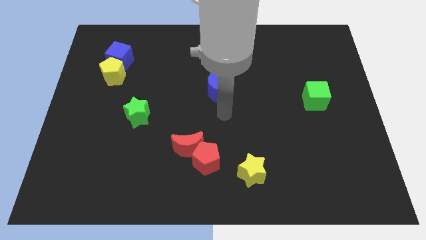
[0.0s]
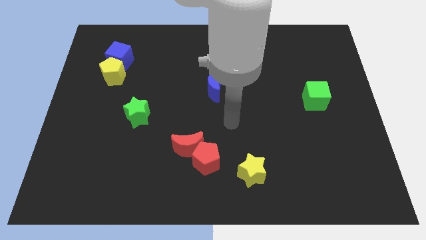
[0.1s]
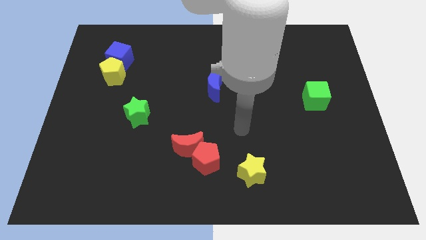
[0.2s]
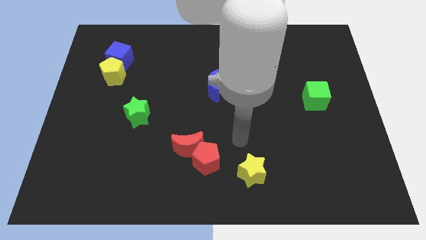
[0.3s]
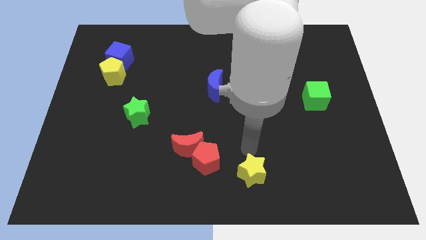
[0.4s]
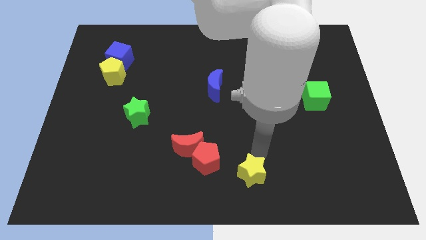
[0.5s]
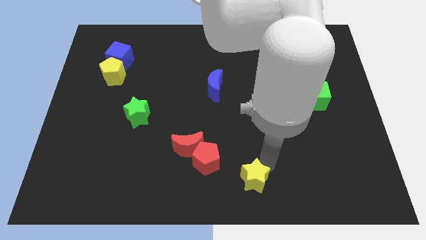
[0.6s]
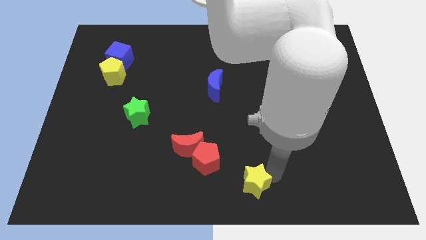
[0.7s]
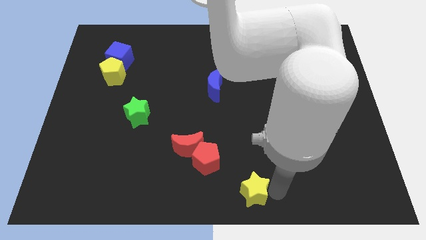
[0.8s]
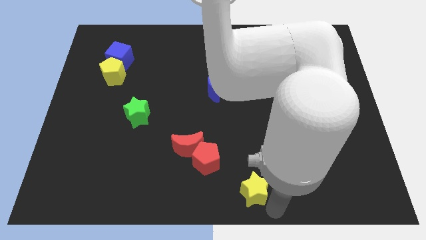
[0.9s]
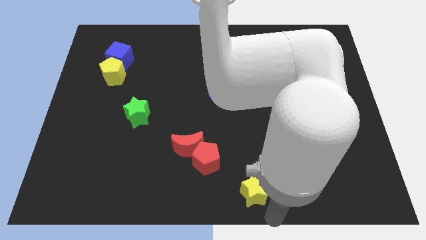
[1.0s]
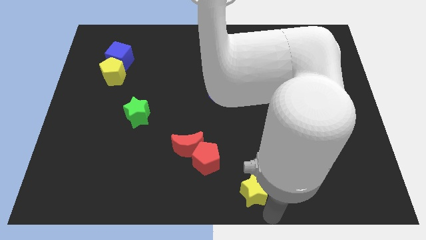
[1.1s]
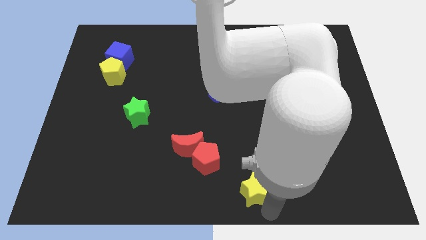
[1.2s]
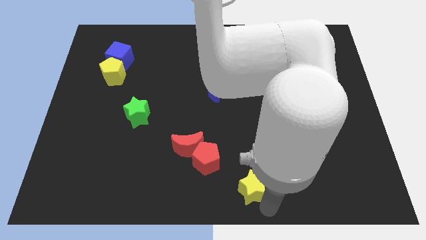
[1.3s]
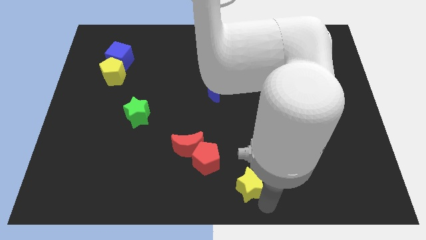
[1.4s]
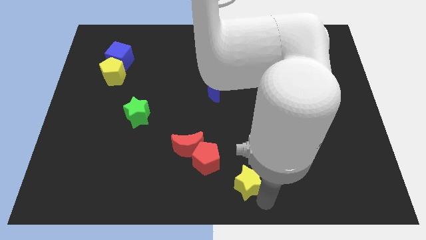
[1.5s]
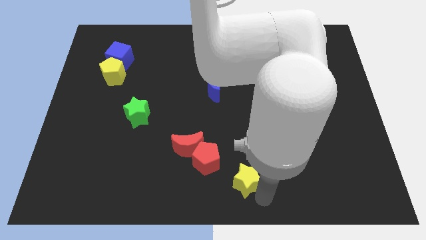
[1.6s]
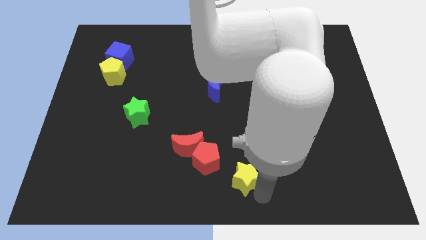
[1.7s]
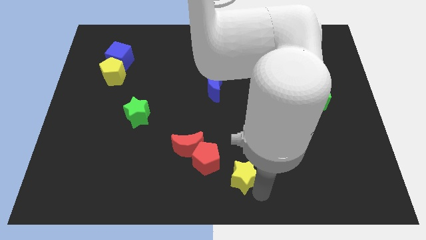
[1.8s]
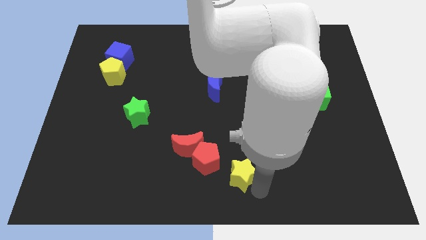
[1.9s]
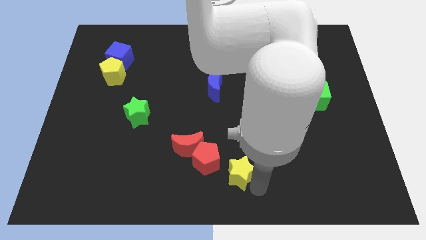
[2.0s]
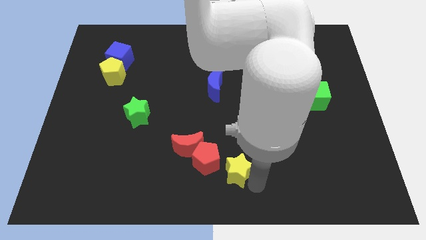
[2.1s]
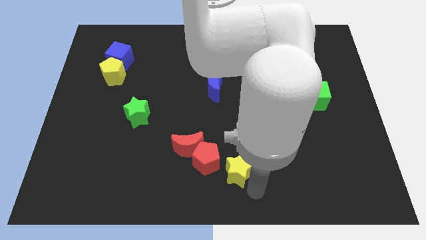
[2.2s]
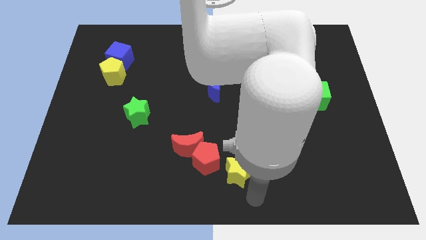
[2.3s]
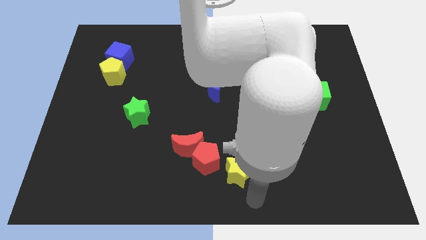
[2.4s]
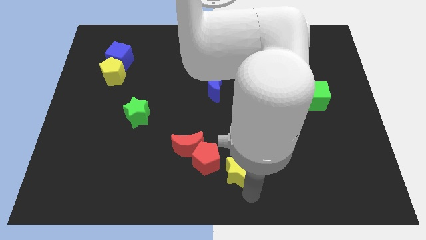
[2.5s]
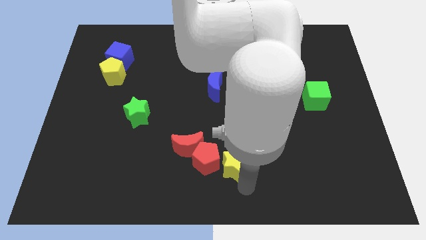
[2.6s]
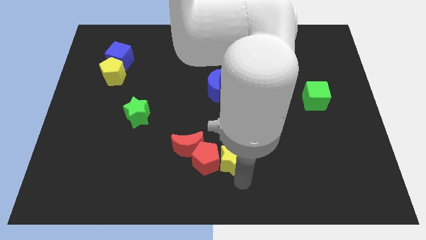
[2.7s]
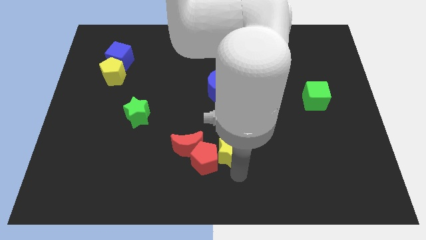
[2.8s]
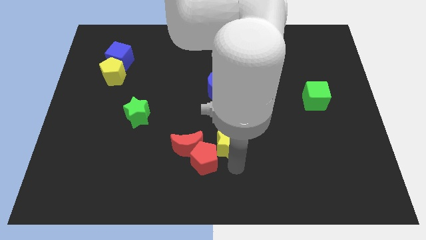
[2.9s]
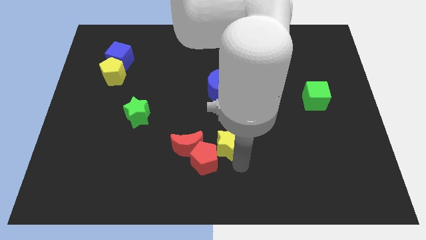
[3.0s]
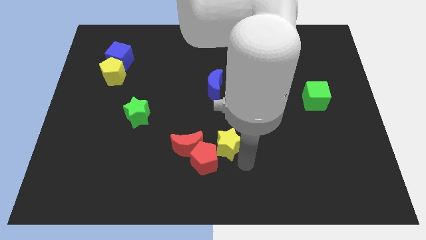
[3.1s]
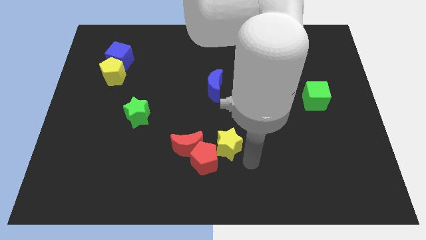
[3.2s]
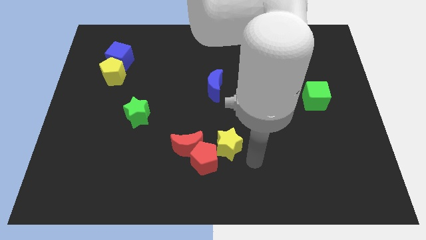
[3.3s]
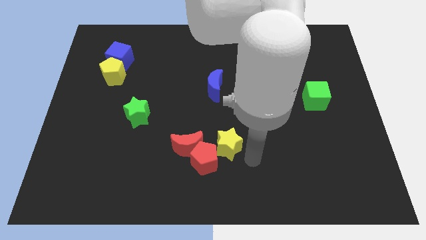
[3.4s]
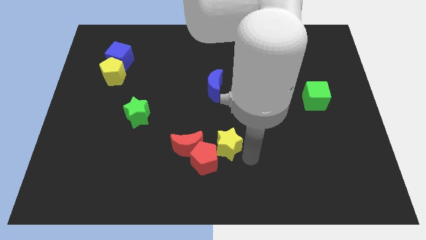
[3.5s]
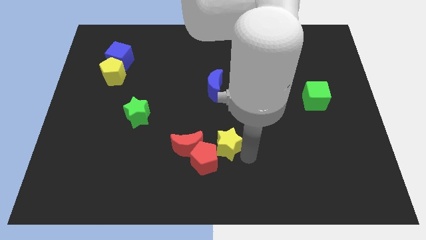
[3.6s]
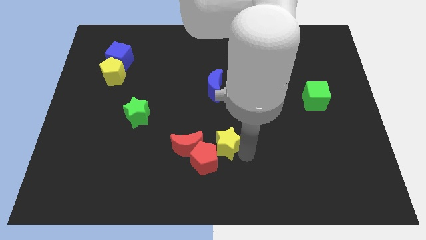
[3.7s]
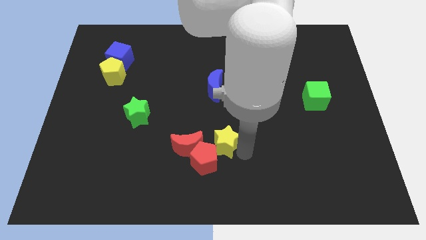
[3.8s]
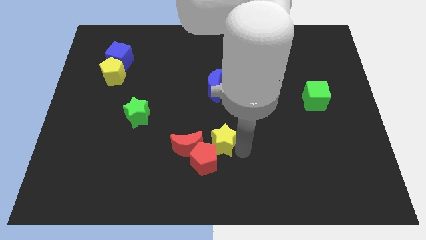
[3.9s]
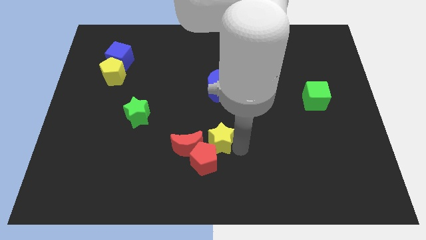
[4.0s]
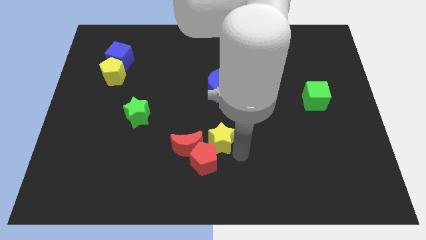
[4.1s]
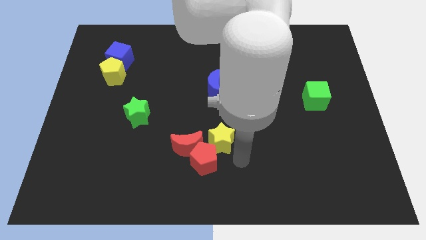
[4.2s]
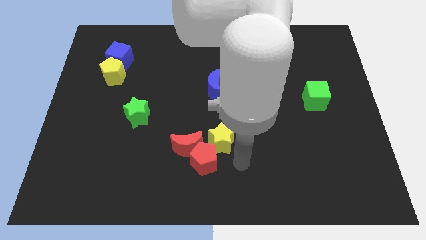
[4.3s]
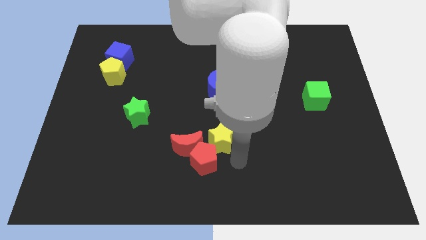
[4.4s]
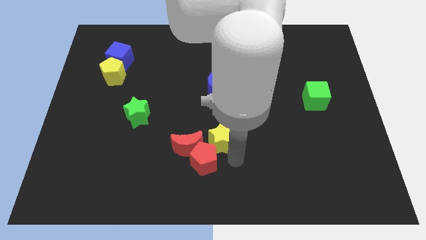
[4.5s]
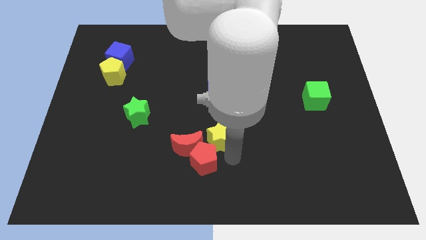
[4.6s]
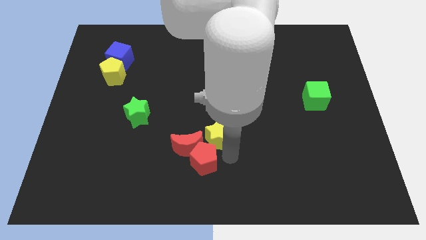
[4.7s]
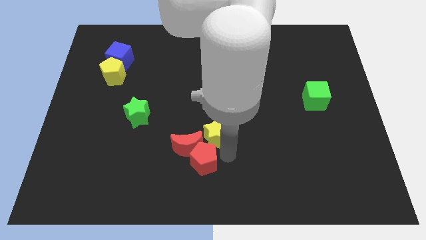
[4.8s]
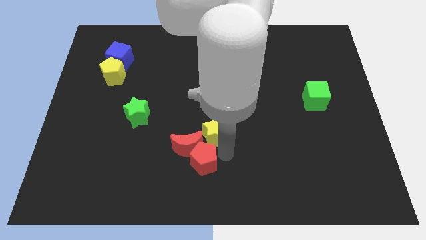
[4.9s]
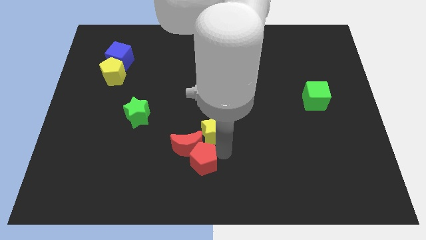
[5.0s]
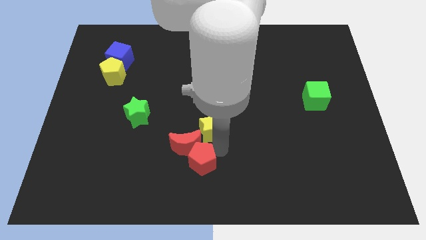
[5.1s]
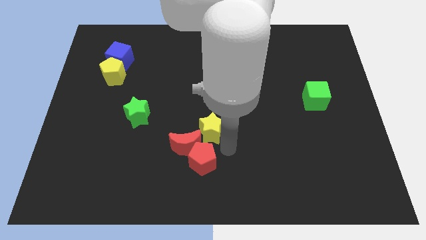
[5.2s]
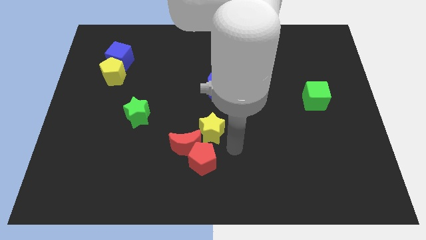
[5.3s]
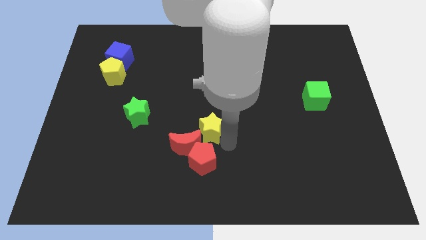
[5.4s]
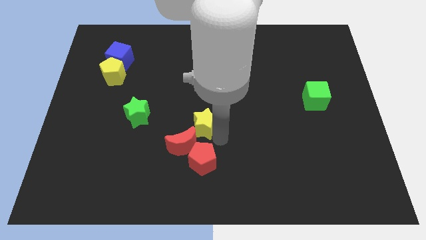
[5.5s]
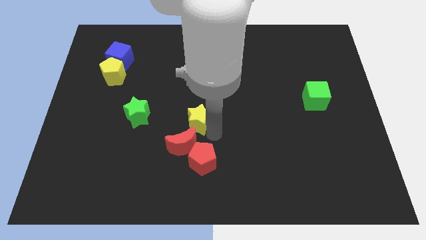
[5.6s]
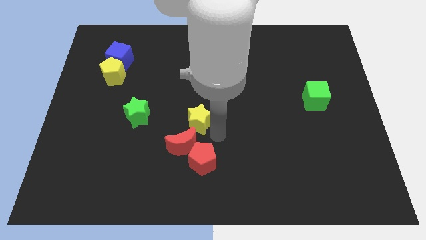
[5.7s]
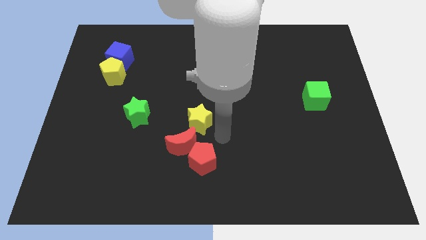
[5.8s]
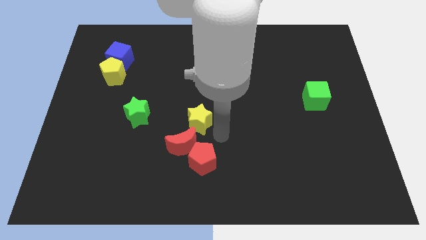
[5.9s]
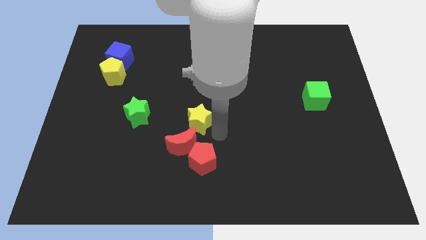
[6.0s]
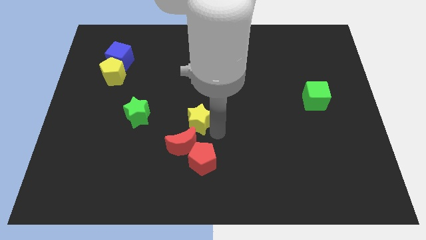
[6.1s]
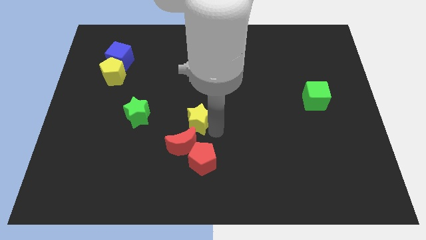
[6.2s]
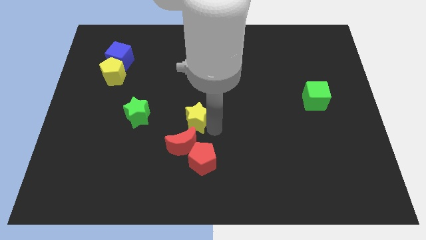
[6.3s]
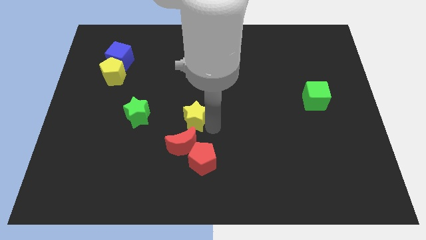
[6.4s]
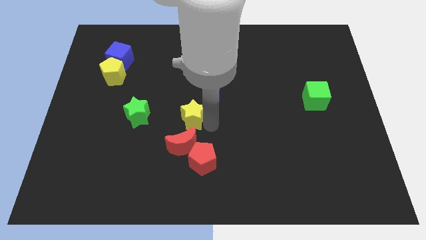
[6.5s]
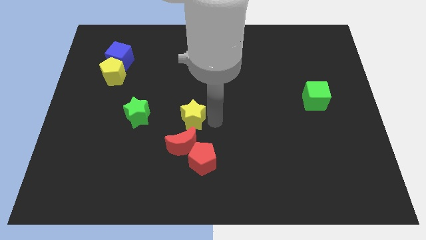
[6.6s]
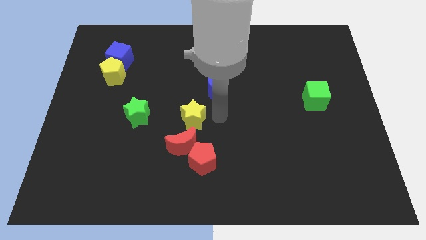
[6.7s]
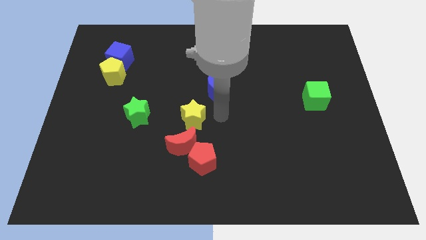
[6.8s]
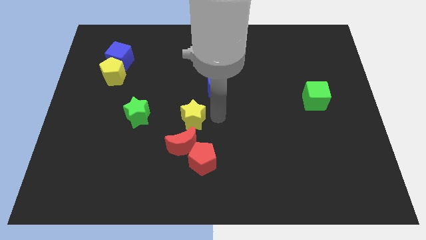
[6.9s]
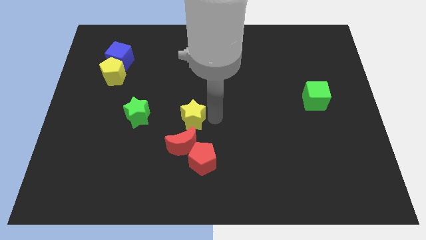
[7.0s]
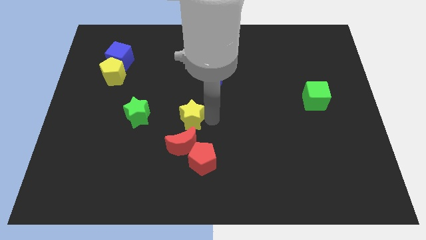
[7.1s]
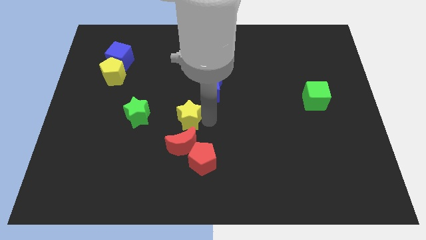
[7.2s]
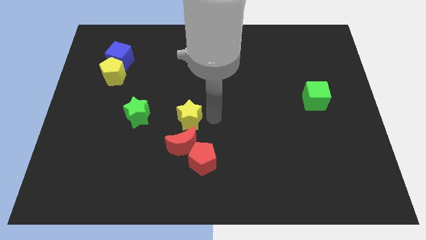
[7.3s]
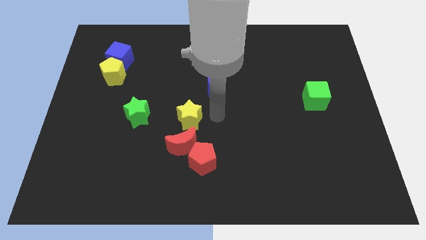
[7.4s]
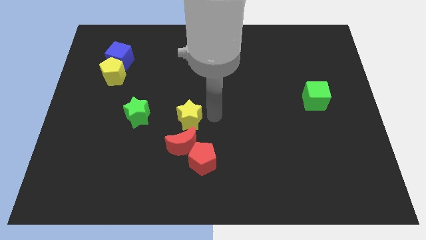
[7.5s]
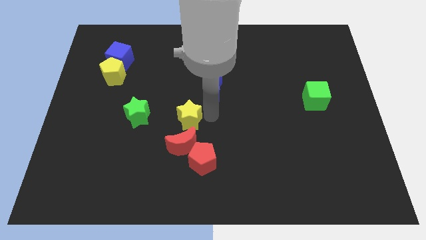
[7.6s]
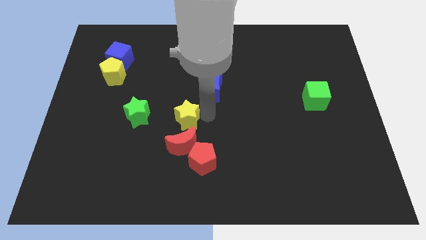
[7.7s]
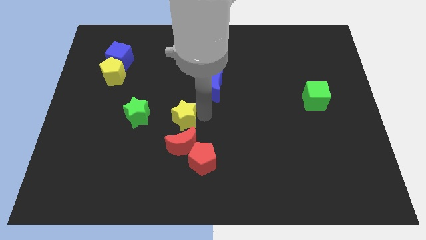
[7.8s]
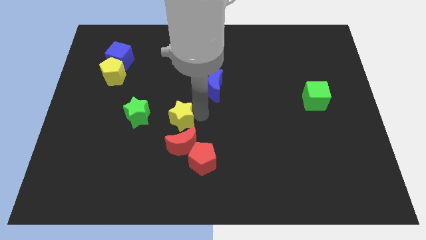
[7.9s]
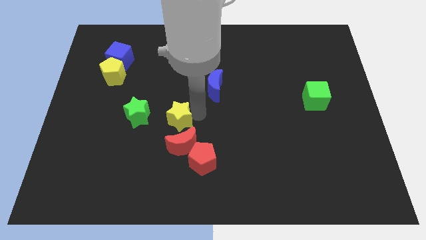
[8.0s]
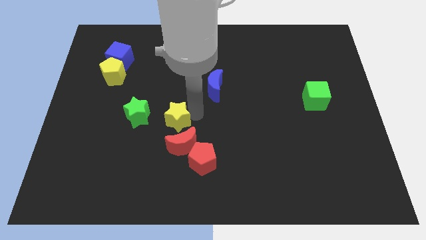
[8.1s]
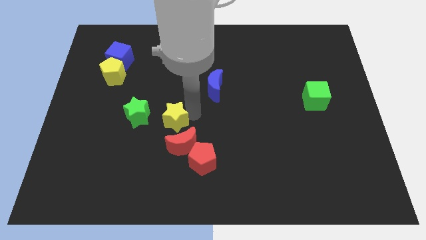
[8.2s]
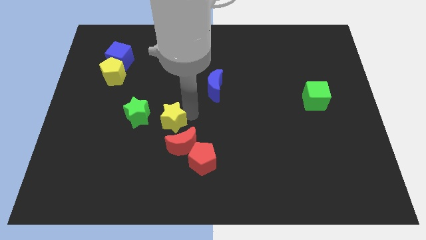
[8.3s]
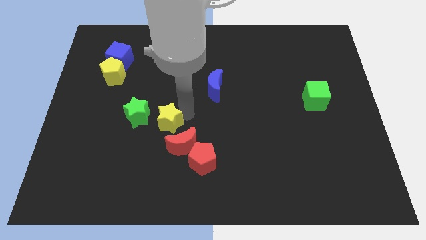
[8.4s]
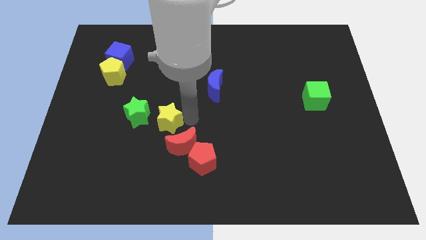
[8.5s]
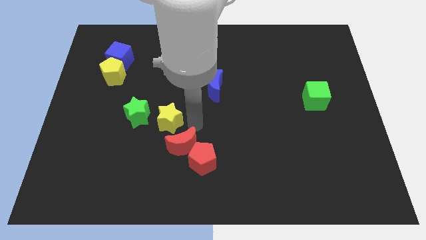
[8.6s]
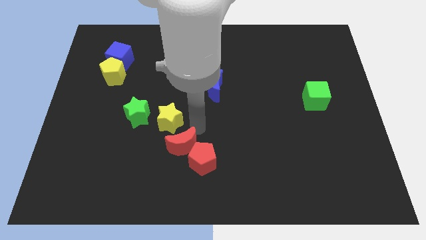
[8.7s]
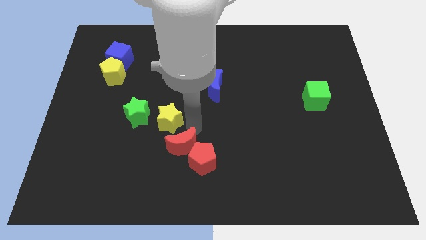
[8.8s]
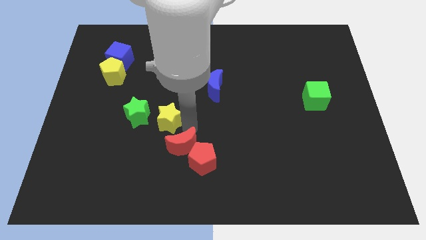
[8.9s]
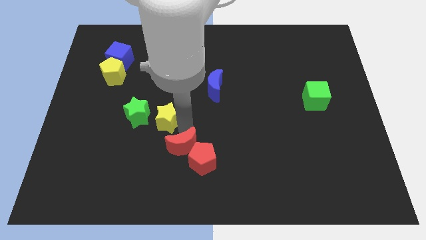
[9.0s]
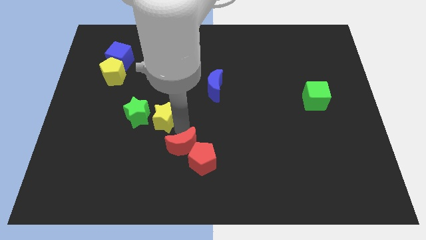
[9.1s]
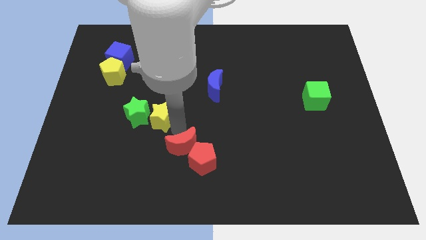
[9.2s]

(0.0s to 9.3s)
put the yellow star to the green star
